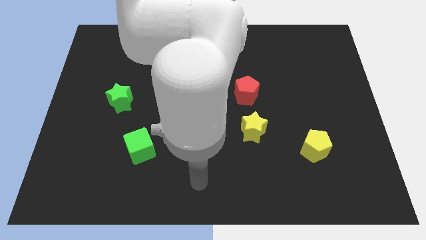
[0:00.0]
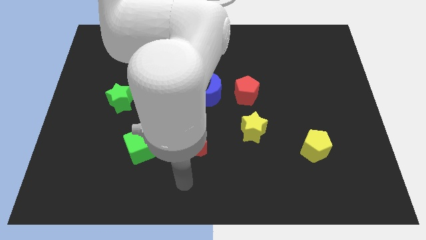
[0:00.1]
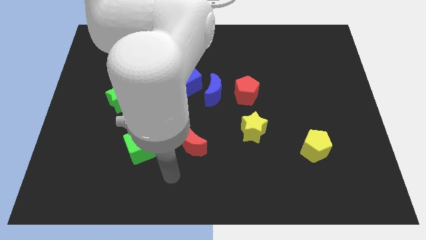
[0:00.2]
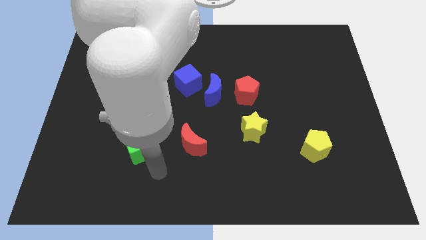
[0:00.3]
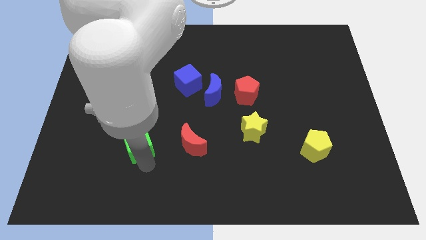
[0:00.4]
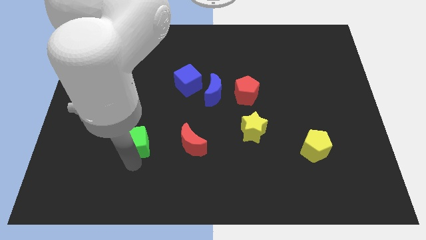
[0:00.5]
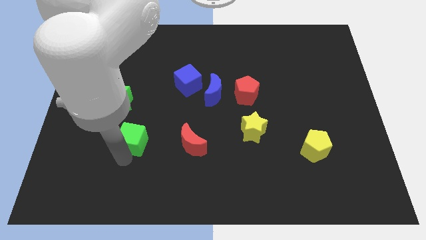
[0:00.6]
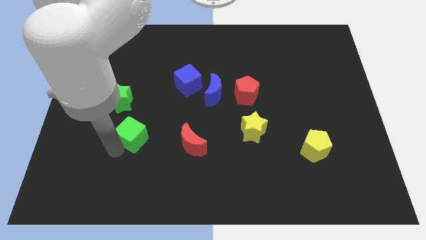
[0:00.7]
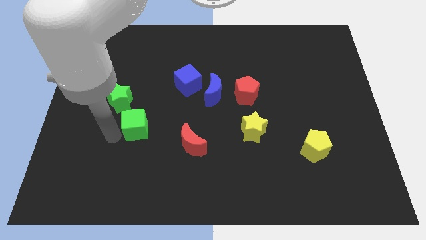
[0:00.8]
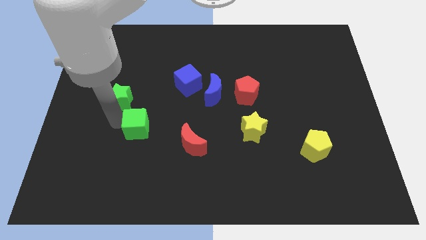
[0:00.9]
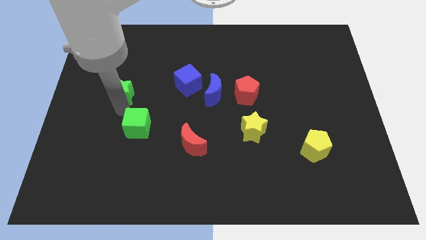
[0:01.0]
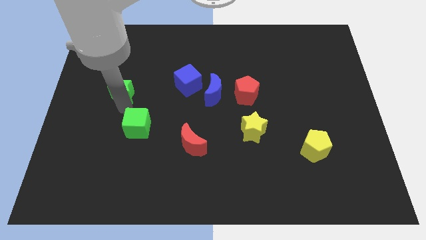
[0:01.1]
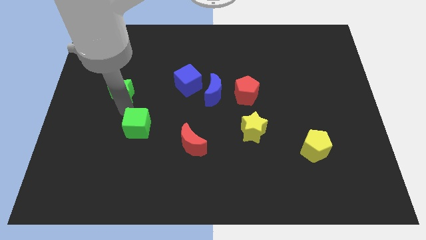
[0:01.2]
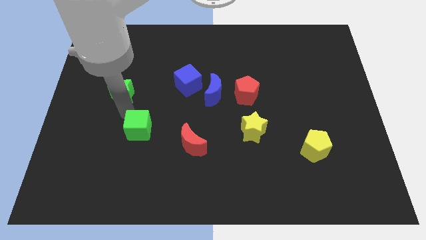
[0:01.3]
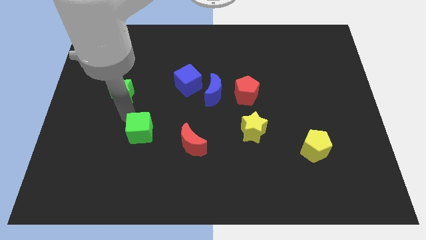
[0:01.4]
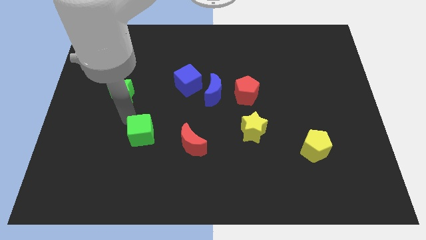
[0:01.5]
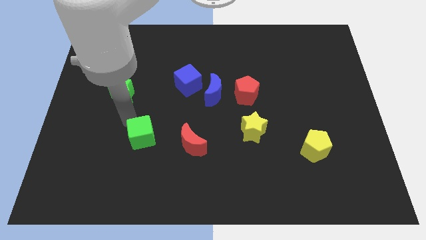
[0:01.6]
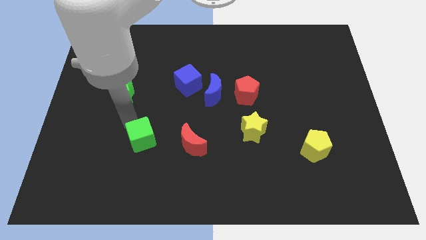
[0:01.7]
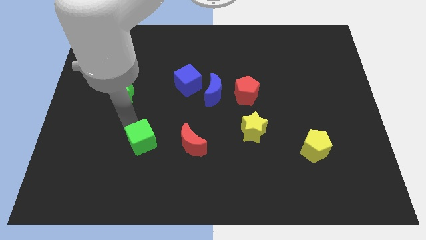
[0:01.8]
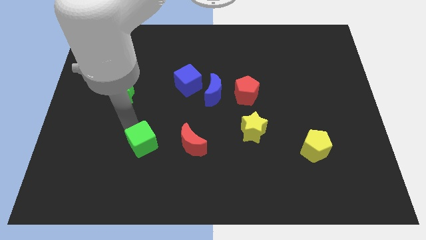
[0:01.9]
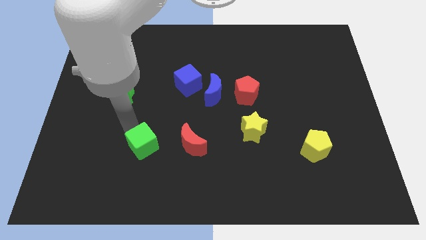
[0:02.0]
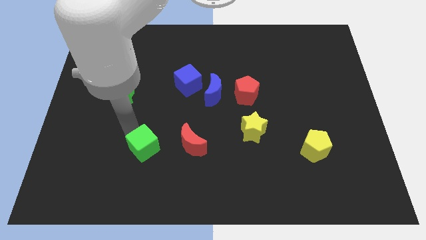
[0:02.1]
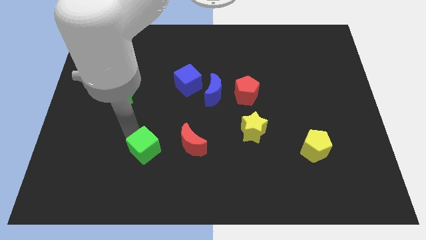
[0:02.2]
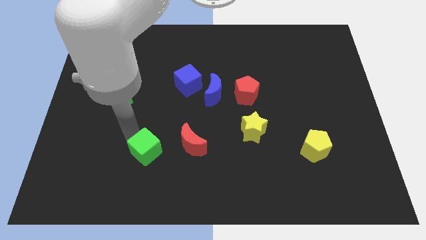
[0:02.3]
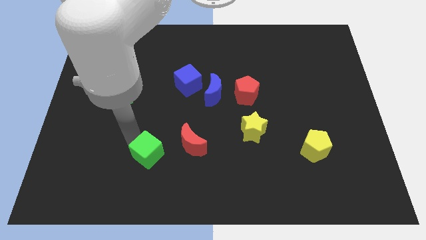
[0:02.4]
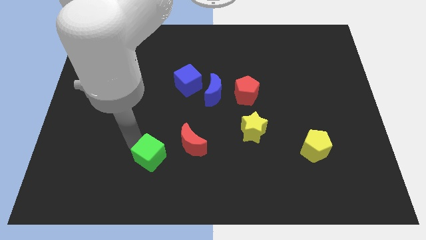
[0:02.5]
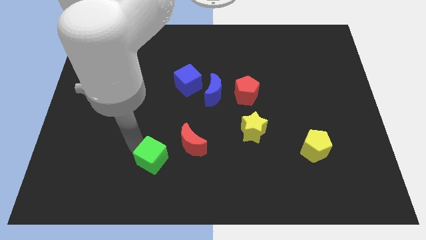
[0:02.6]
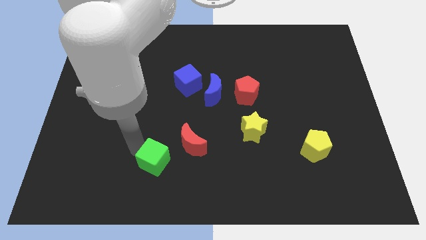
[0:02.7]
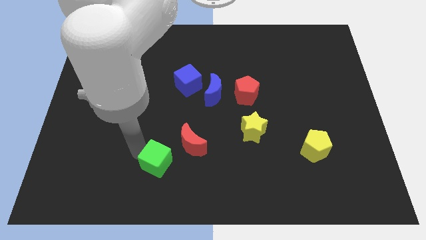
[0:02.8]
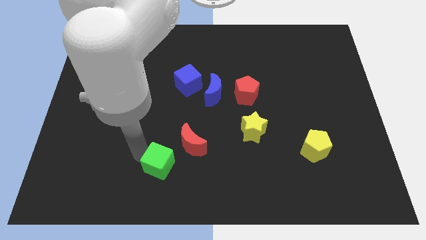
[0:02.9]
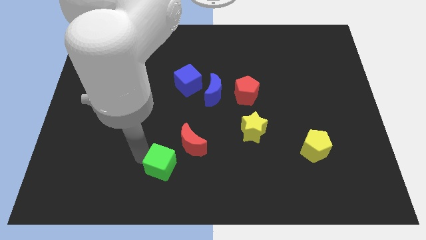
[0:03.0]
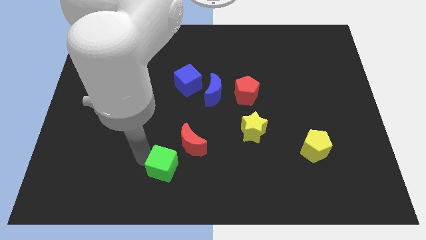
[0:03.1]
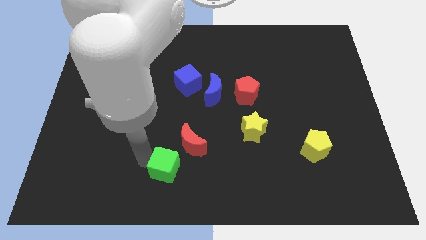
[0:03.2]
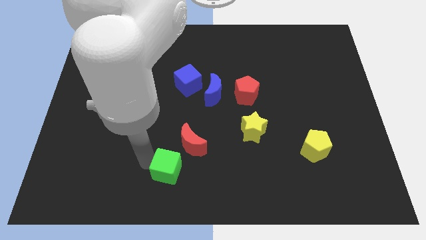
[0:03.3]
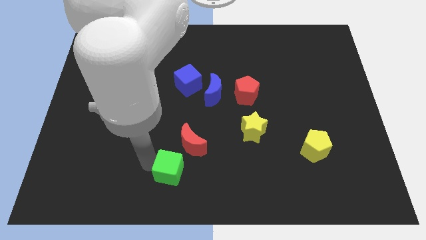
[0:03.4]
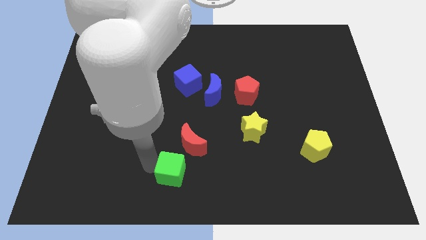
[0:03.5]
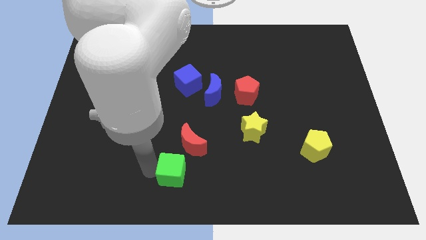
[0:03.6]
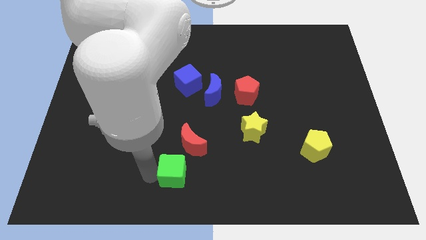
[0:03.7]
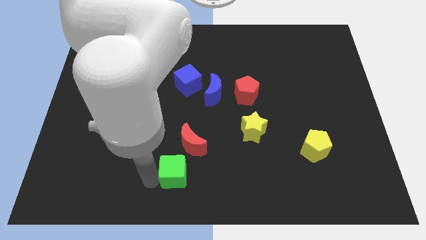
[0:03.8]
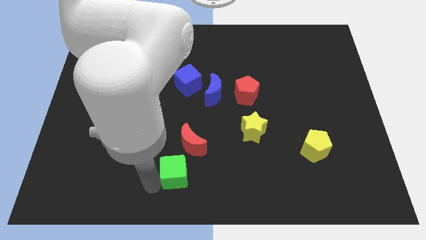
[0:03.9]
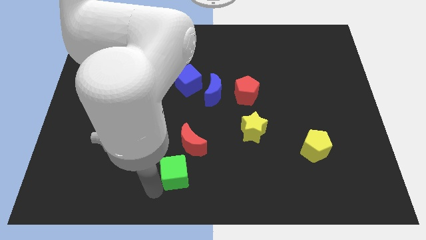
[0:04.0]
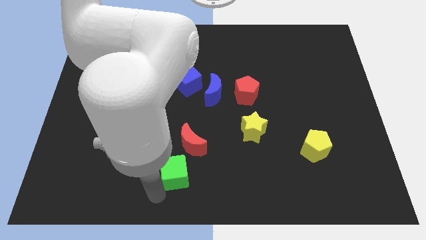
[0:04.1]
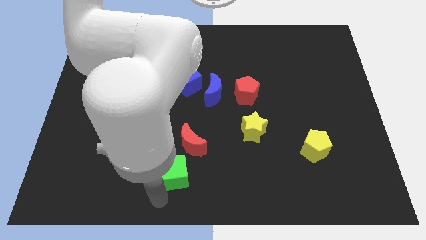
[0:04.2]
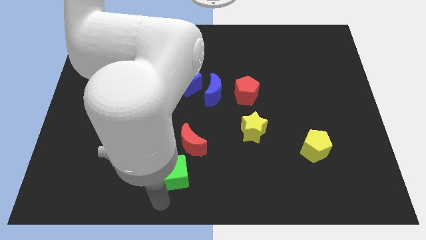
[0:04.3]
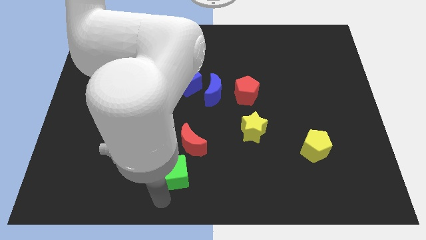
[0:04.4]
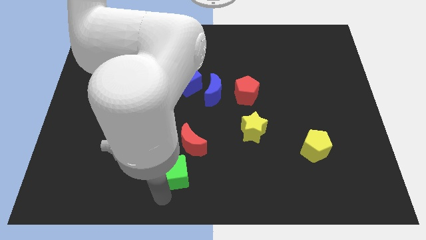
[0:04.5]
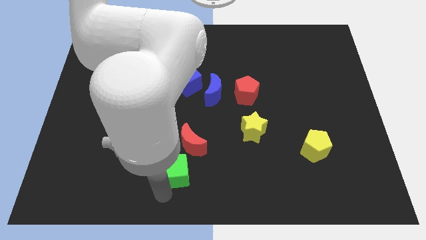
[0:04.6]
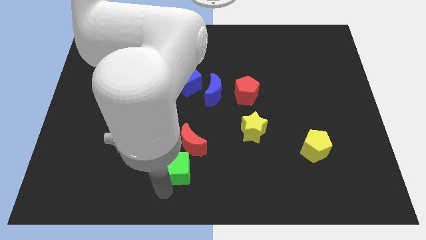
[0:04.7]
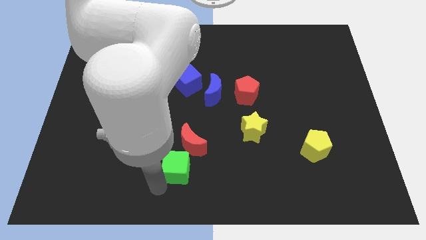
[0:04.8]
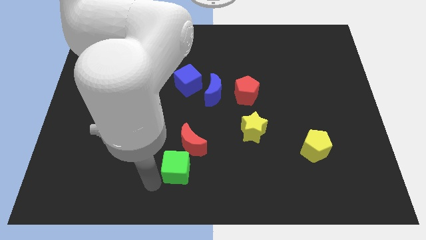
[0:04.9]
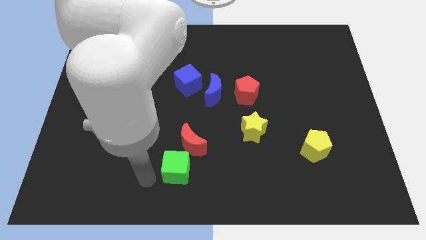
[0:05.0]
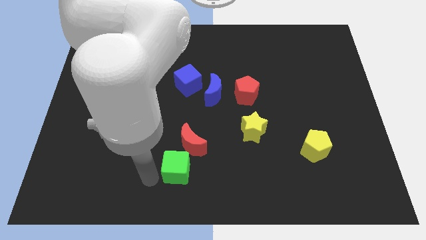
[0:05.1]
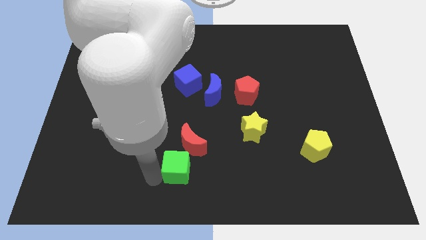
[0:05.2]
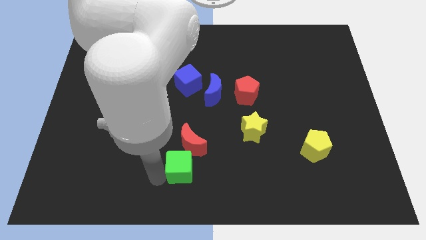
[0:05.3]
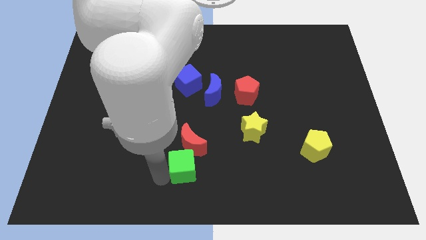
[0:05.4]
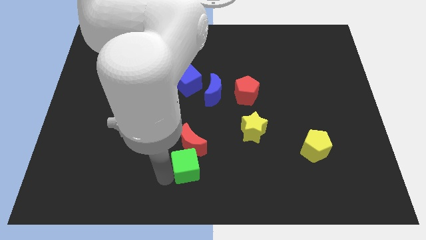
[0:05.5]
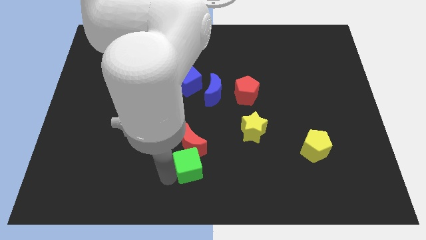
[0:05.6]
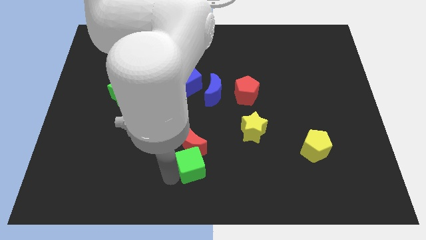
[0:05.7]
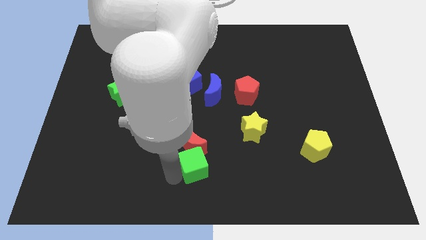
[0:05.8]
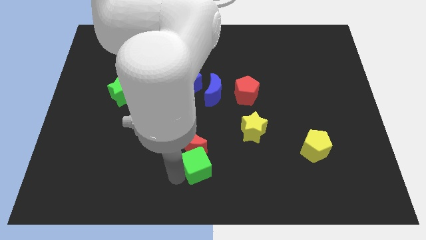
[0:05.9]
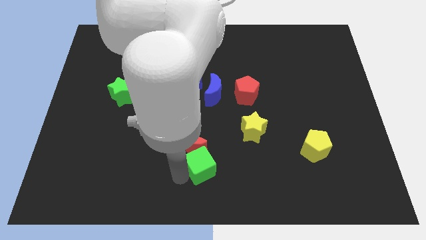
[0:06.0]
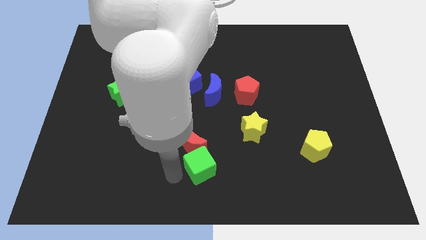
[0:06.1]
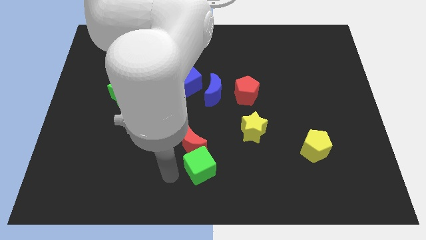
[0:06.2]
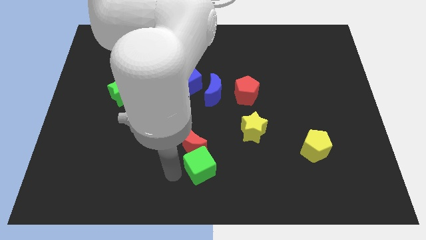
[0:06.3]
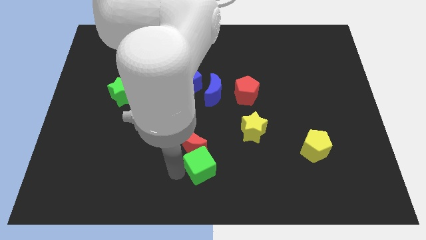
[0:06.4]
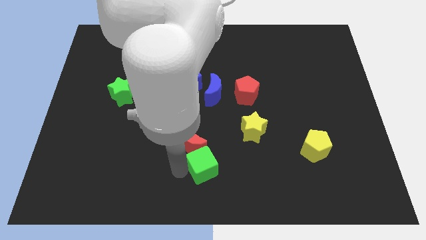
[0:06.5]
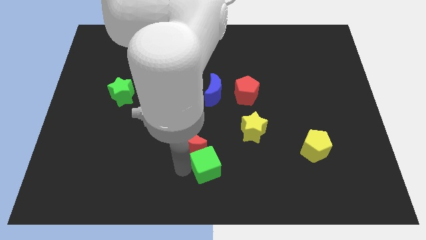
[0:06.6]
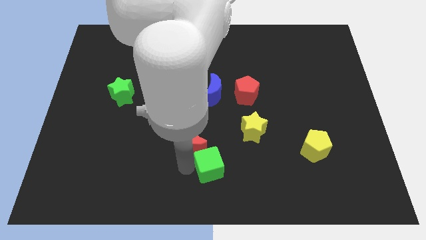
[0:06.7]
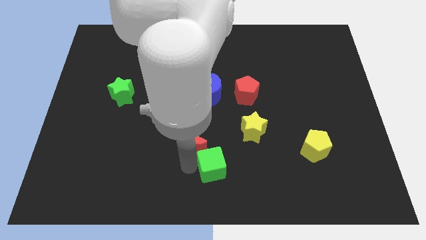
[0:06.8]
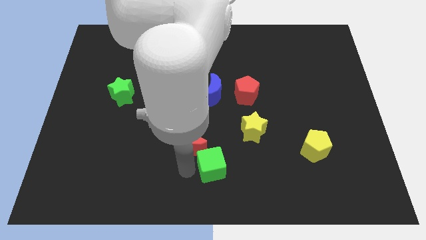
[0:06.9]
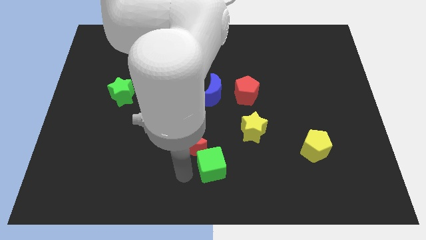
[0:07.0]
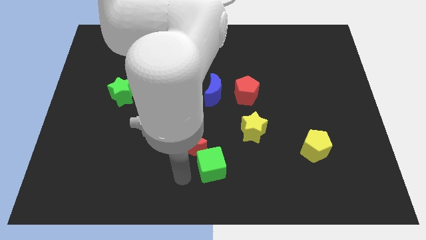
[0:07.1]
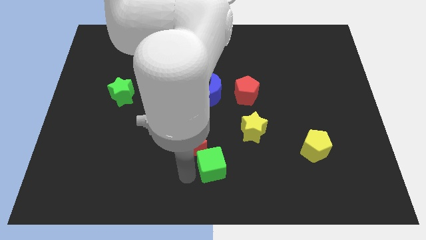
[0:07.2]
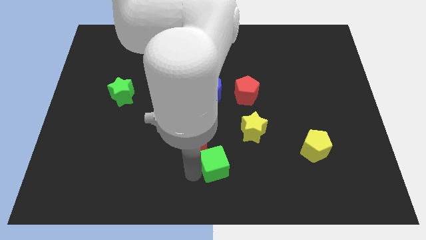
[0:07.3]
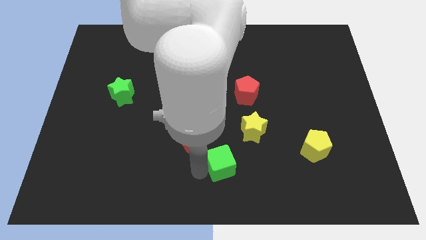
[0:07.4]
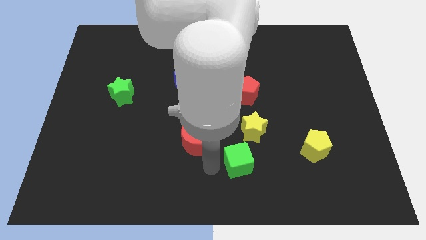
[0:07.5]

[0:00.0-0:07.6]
push the green cube right

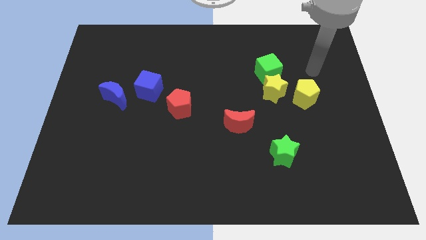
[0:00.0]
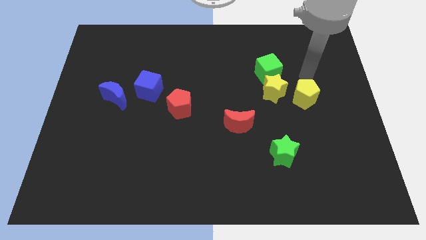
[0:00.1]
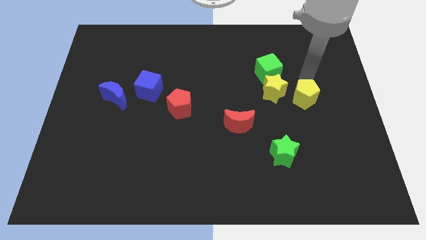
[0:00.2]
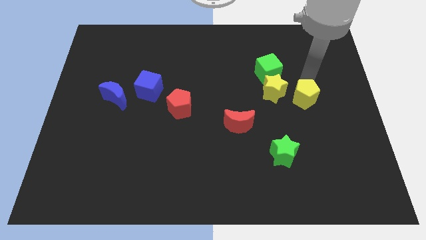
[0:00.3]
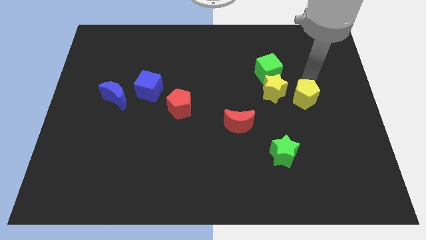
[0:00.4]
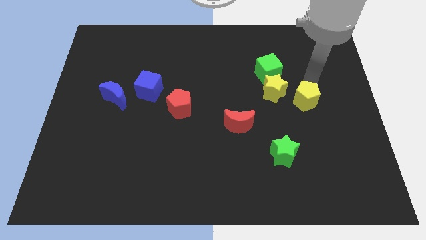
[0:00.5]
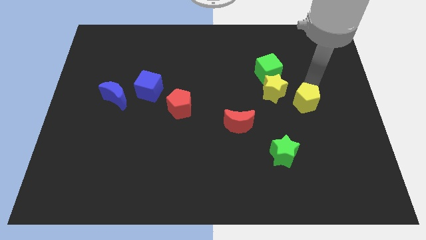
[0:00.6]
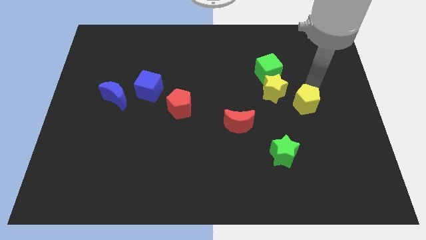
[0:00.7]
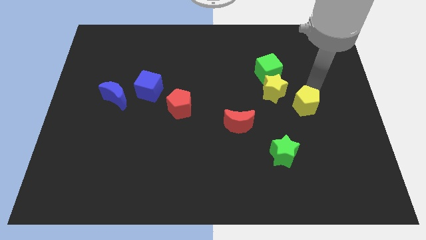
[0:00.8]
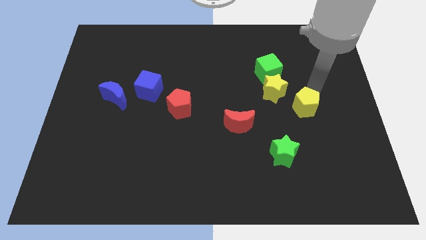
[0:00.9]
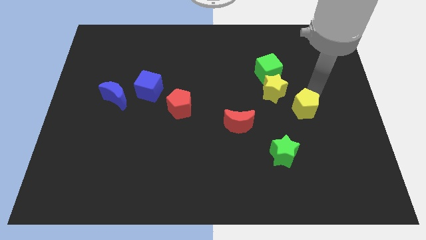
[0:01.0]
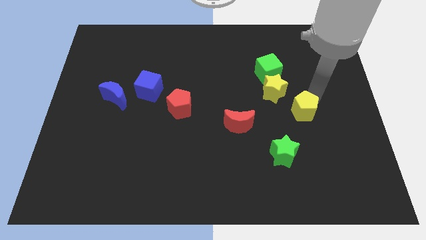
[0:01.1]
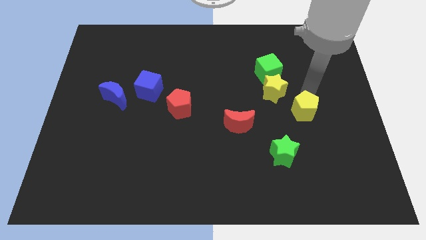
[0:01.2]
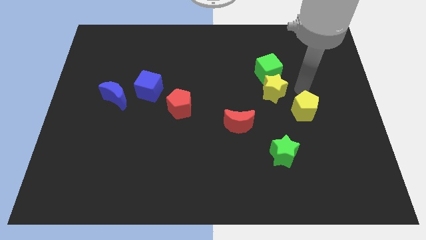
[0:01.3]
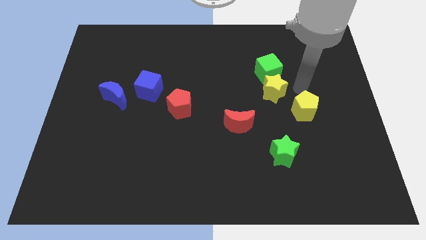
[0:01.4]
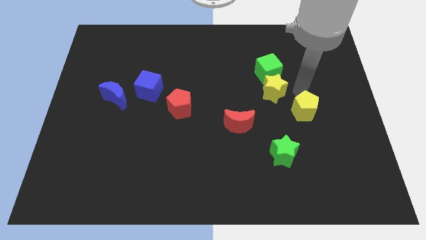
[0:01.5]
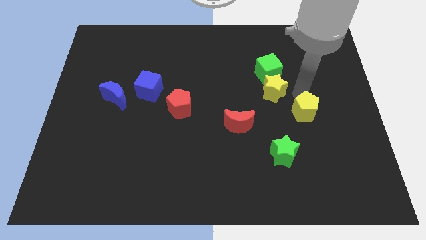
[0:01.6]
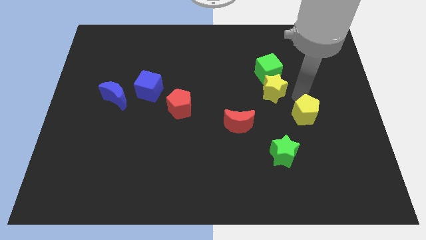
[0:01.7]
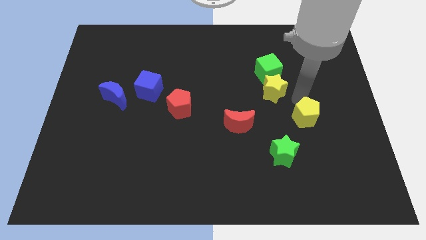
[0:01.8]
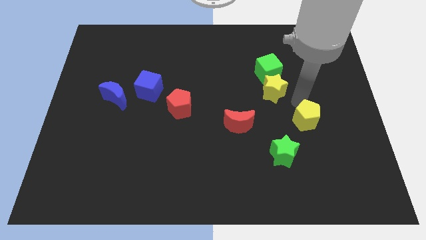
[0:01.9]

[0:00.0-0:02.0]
push the yellow pentagon a little downwards
